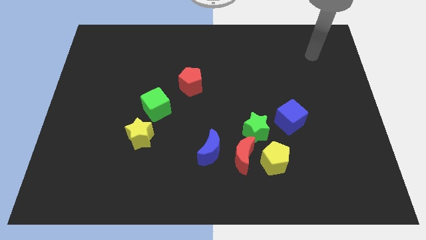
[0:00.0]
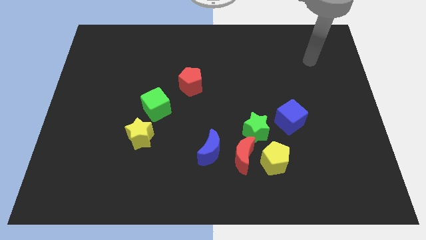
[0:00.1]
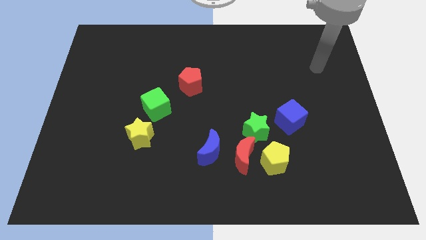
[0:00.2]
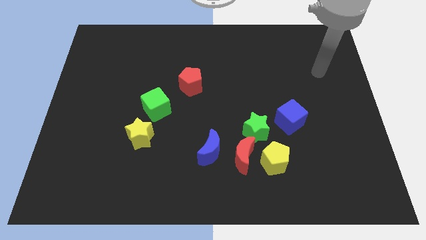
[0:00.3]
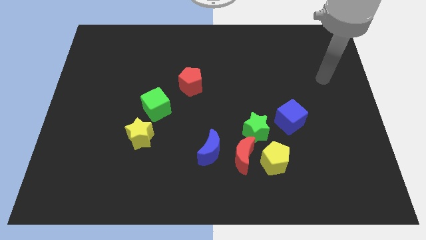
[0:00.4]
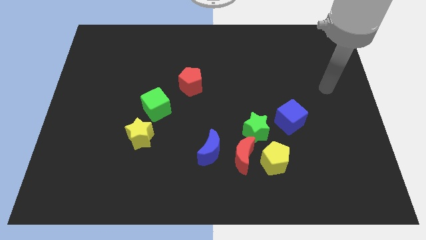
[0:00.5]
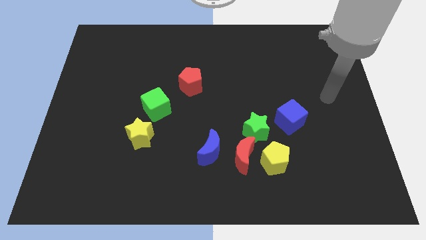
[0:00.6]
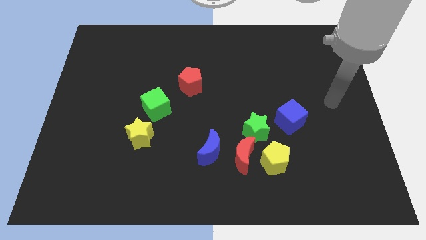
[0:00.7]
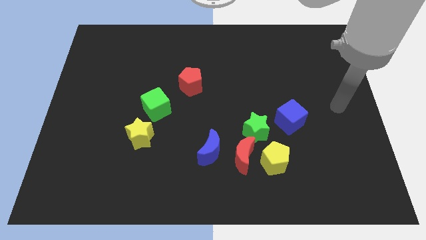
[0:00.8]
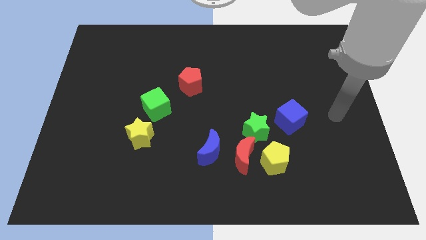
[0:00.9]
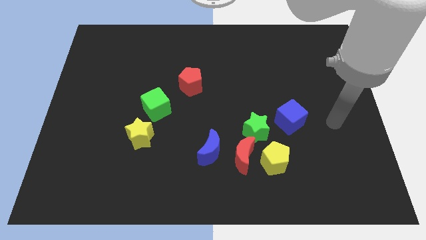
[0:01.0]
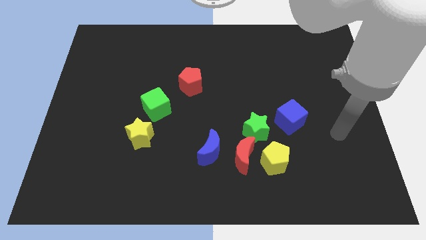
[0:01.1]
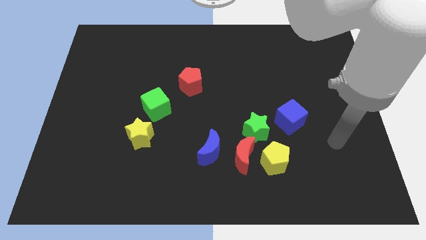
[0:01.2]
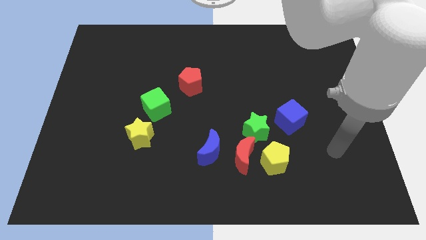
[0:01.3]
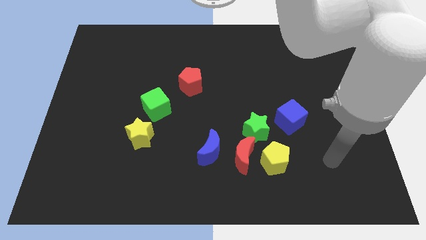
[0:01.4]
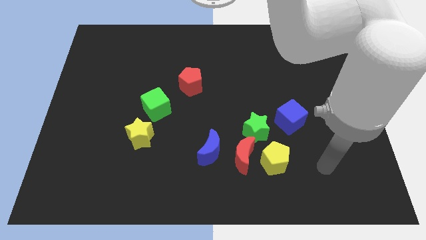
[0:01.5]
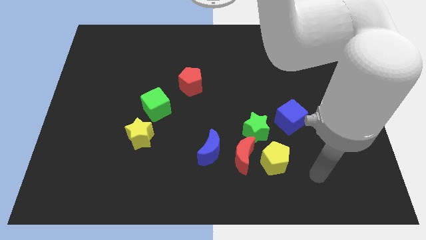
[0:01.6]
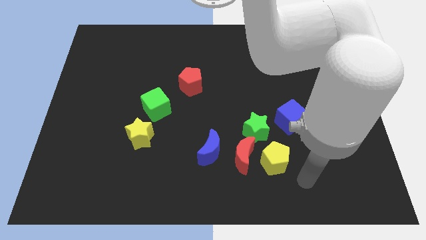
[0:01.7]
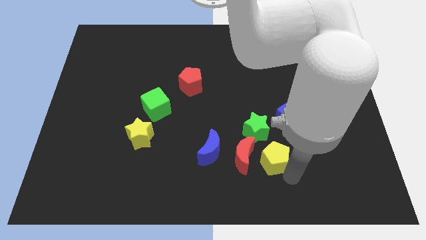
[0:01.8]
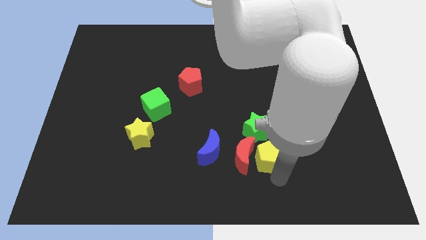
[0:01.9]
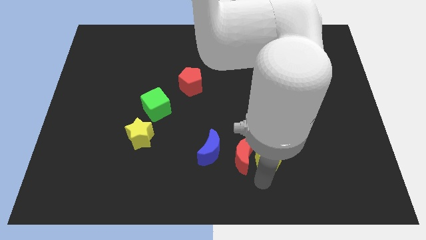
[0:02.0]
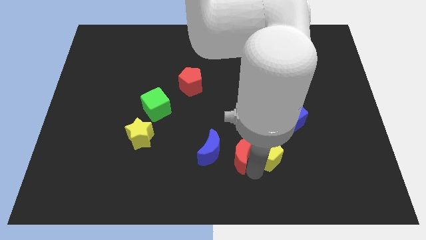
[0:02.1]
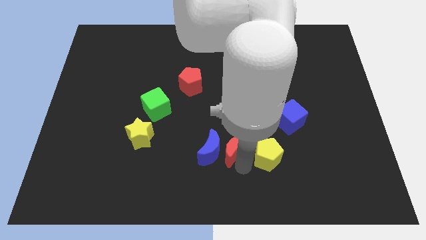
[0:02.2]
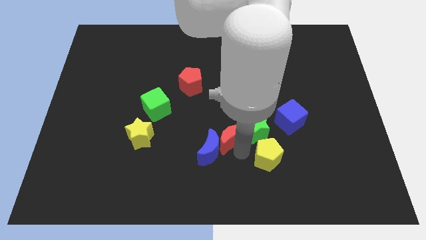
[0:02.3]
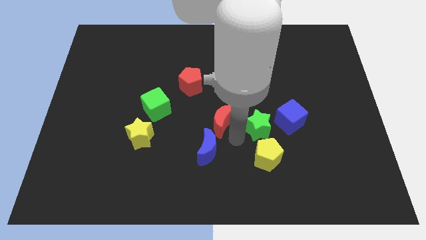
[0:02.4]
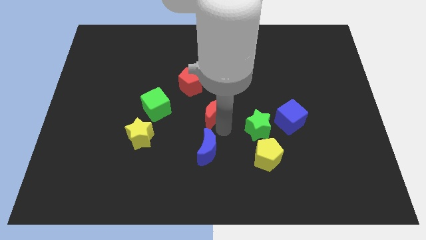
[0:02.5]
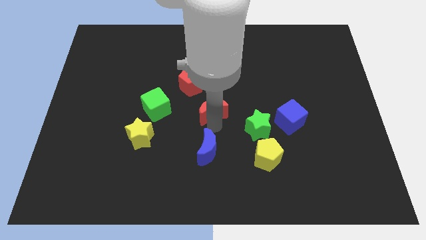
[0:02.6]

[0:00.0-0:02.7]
move the blue moon away from the red moon

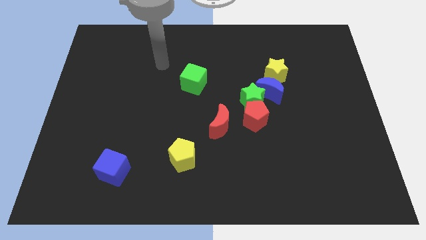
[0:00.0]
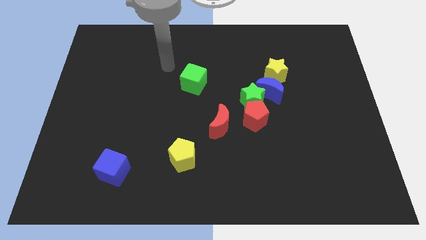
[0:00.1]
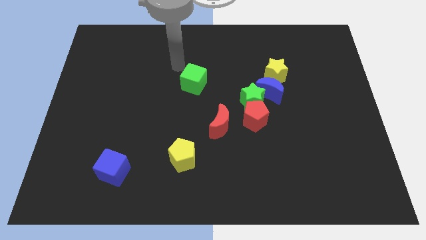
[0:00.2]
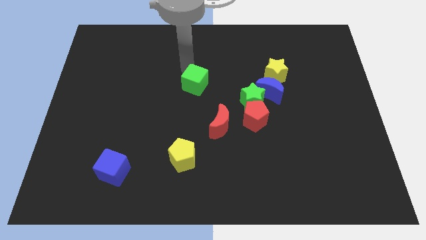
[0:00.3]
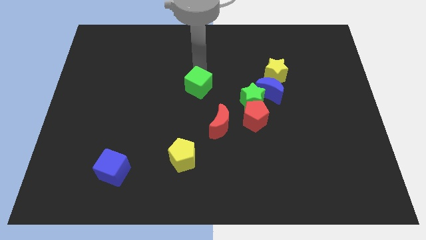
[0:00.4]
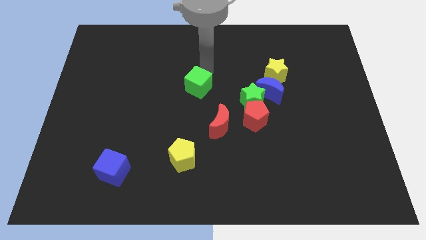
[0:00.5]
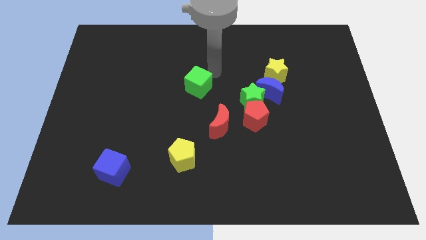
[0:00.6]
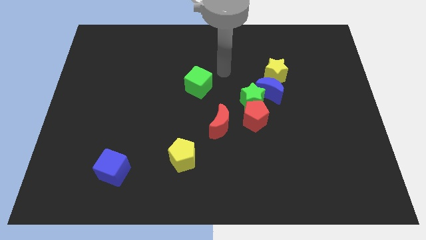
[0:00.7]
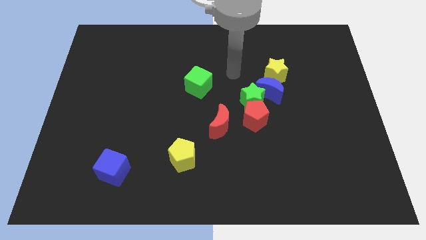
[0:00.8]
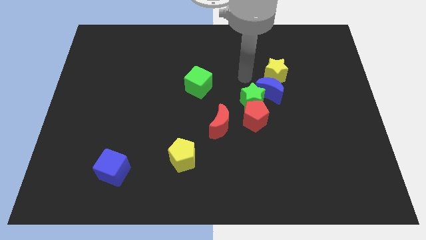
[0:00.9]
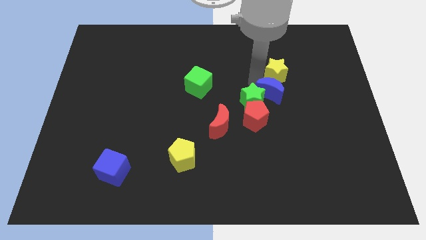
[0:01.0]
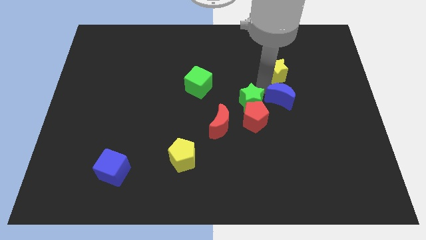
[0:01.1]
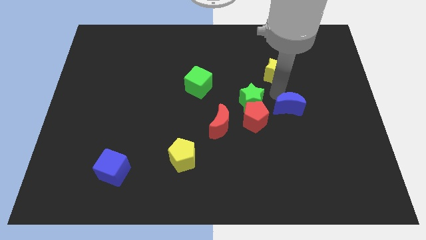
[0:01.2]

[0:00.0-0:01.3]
separate the yellow star from the blue moon

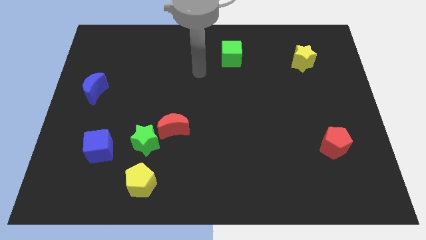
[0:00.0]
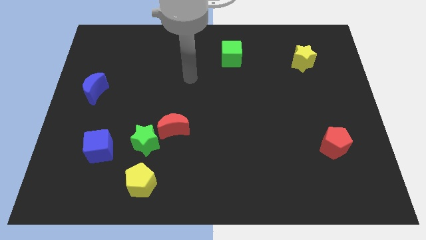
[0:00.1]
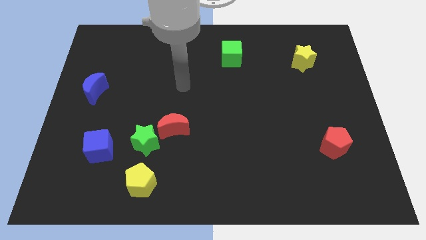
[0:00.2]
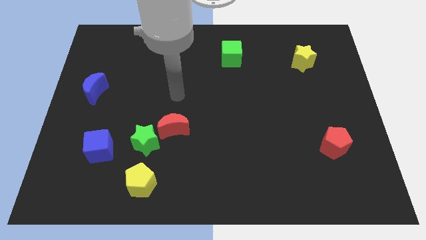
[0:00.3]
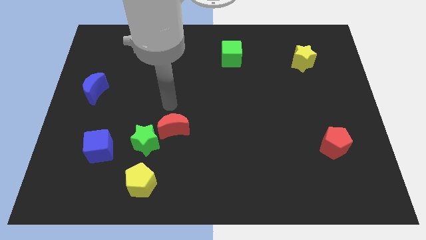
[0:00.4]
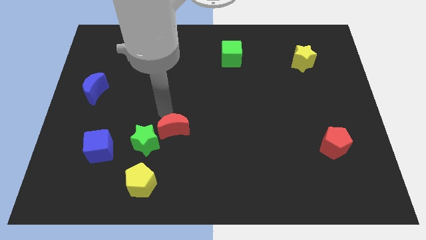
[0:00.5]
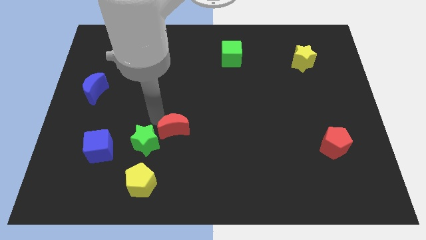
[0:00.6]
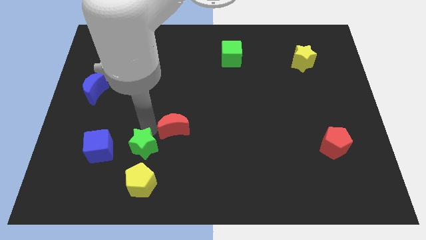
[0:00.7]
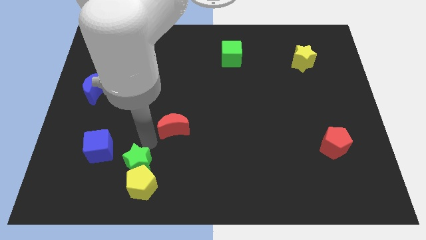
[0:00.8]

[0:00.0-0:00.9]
move the red moon away from the green star

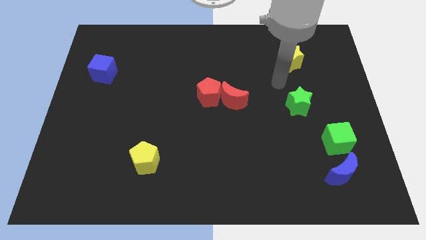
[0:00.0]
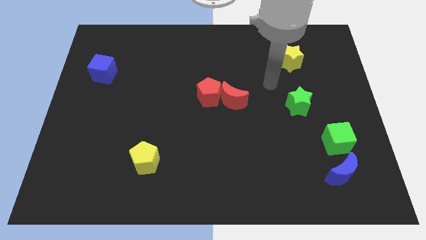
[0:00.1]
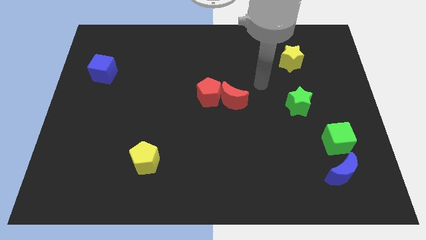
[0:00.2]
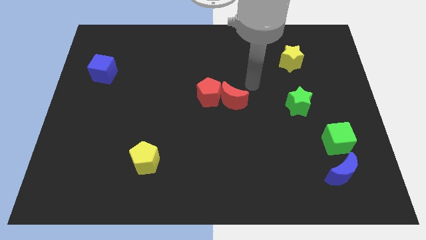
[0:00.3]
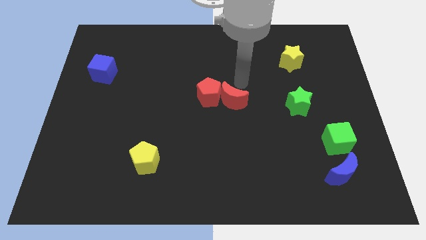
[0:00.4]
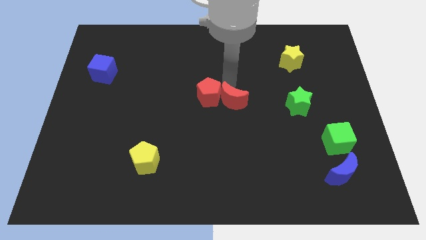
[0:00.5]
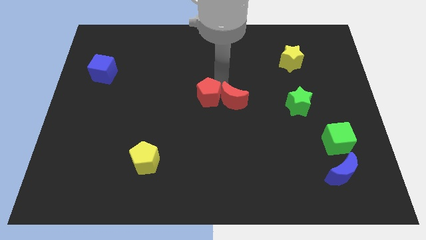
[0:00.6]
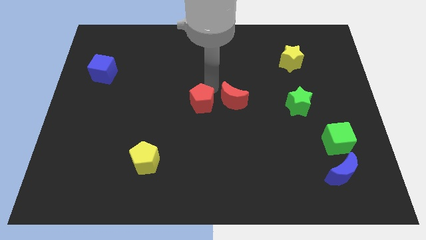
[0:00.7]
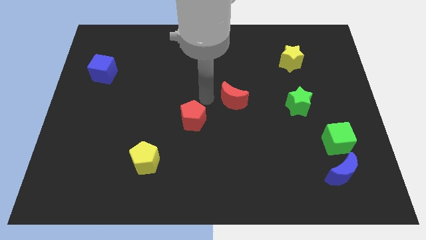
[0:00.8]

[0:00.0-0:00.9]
separate the red moon from the red pentagon

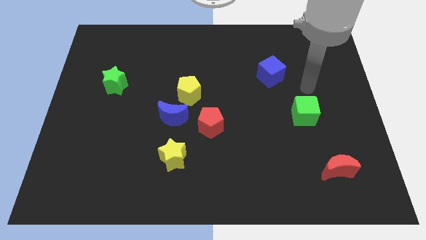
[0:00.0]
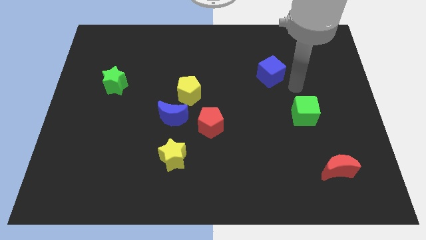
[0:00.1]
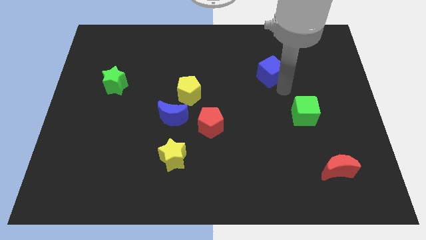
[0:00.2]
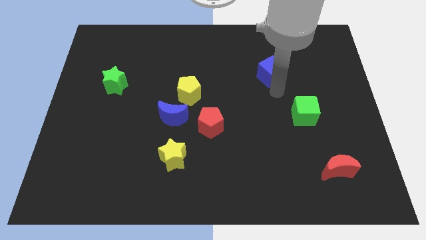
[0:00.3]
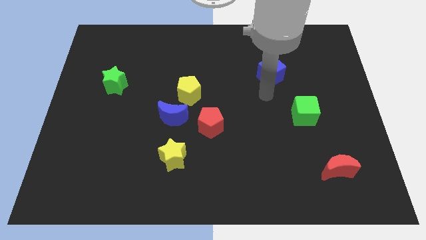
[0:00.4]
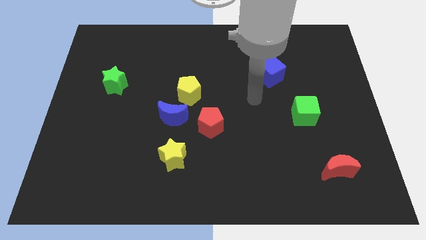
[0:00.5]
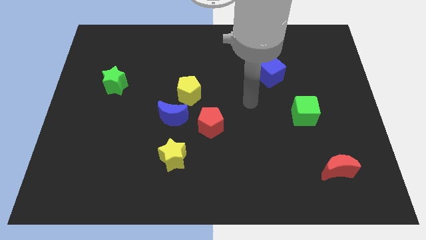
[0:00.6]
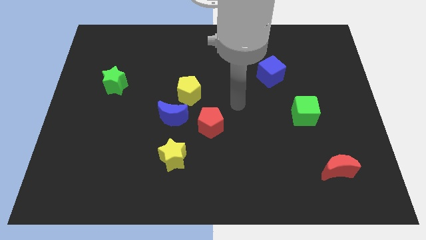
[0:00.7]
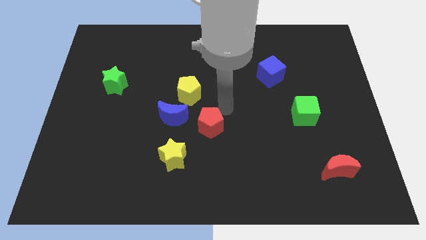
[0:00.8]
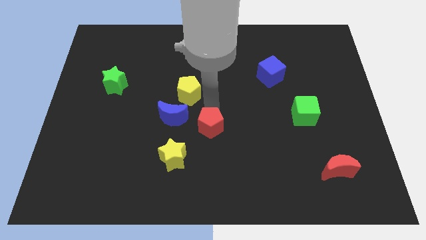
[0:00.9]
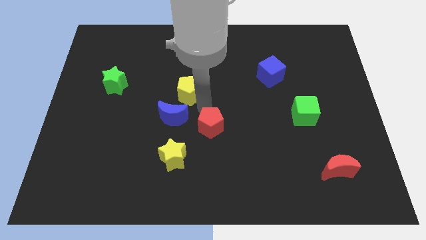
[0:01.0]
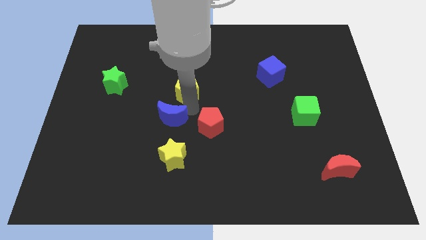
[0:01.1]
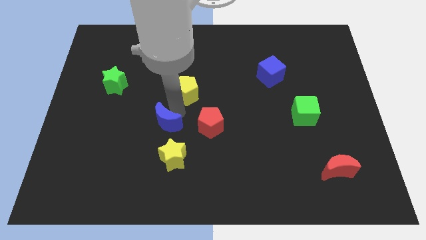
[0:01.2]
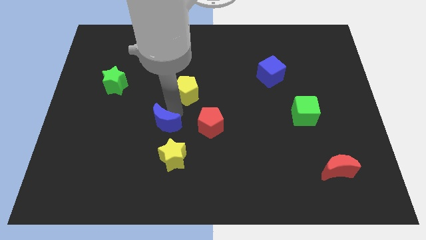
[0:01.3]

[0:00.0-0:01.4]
move the yellow pentagon away from the blue moon

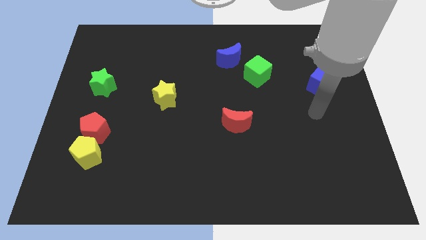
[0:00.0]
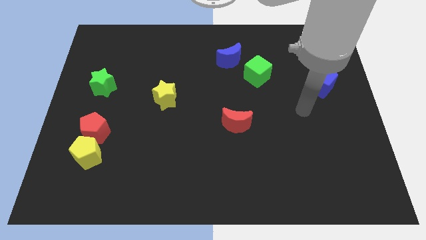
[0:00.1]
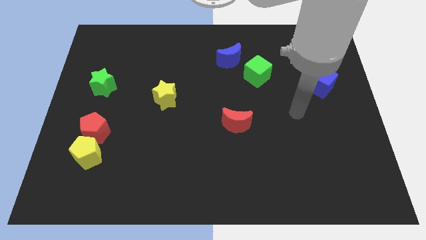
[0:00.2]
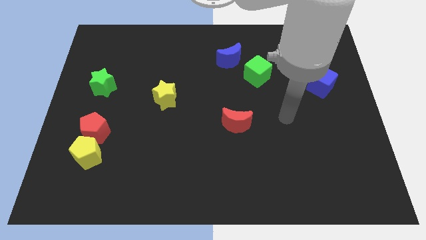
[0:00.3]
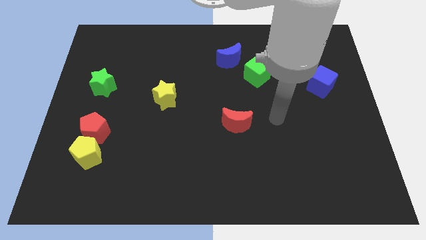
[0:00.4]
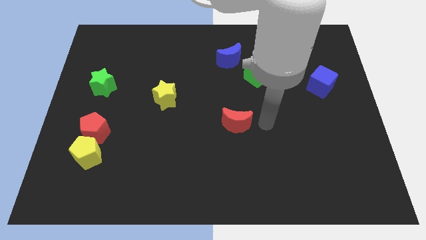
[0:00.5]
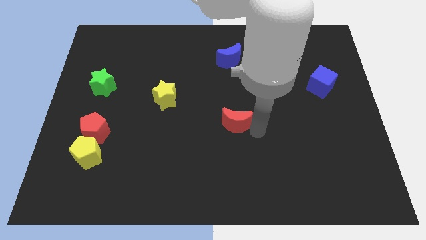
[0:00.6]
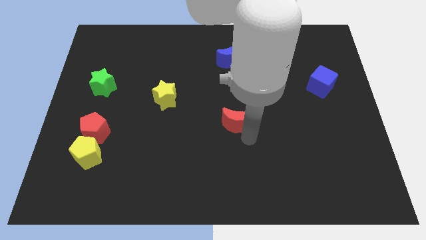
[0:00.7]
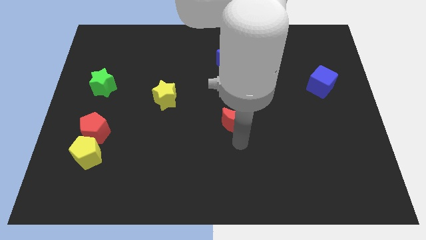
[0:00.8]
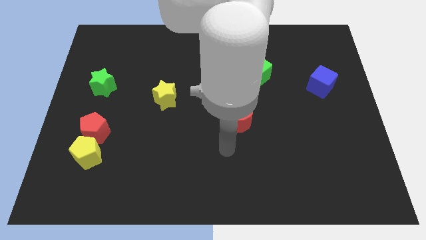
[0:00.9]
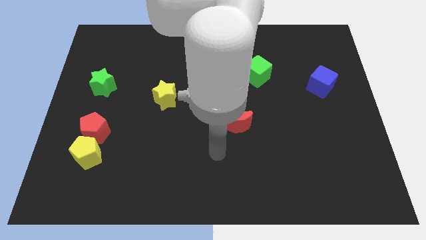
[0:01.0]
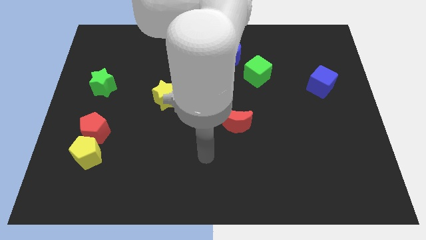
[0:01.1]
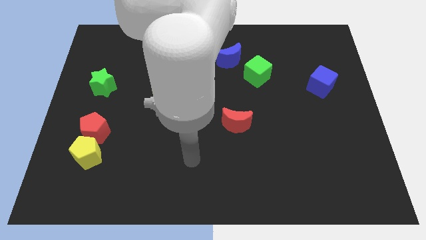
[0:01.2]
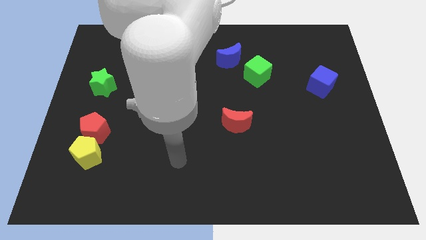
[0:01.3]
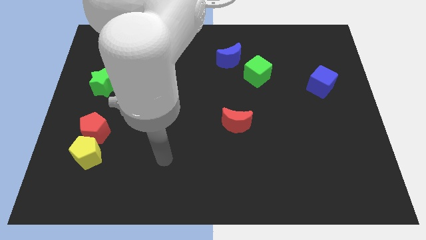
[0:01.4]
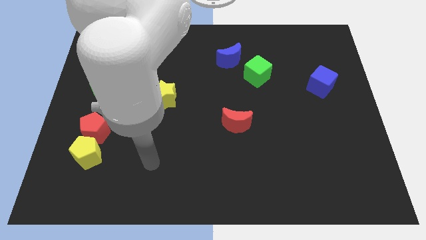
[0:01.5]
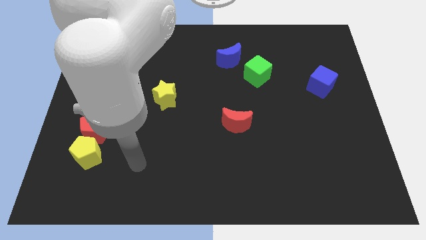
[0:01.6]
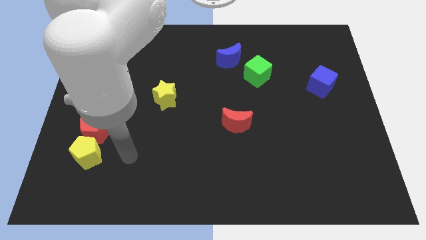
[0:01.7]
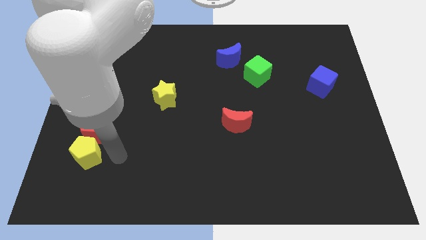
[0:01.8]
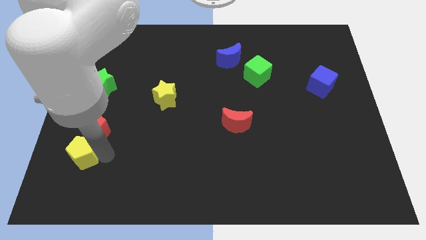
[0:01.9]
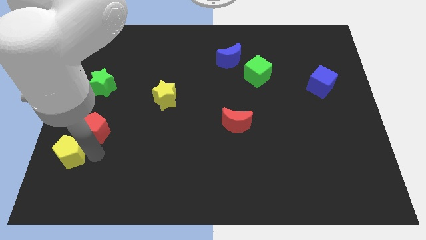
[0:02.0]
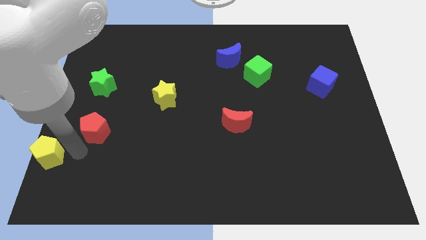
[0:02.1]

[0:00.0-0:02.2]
pull the red pentagon apart from the yellow pentagon
